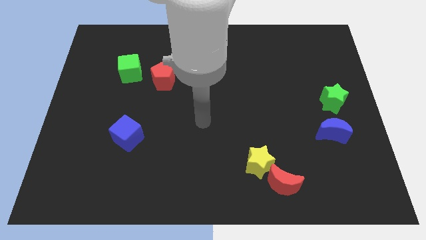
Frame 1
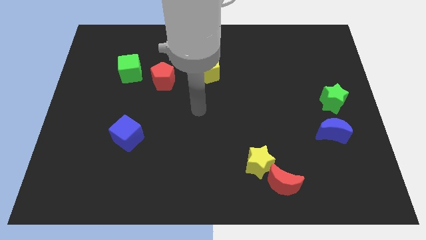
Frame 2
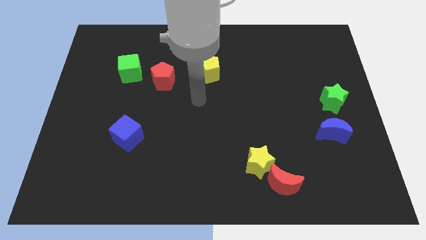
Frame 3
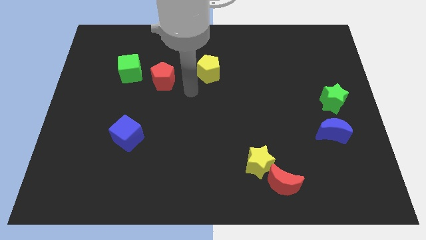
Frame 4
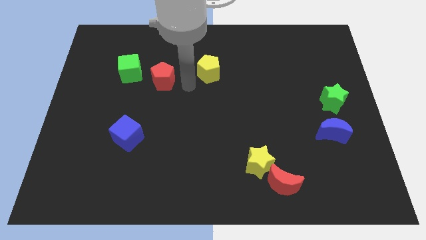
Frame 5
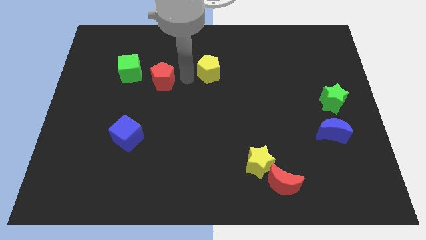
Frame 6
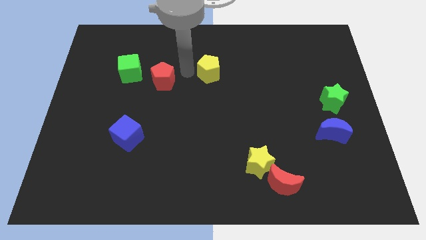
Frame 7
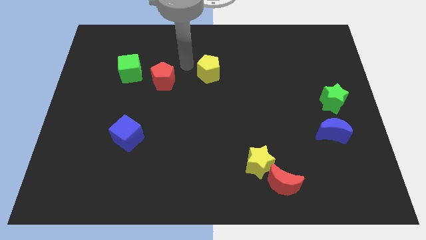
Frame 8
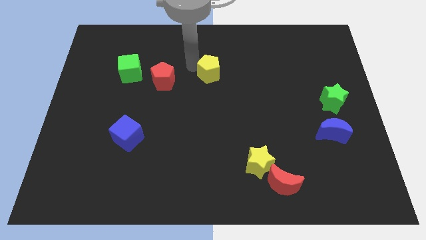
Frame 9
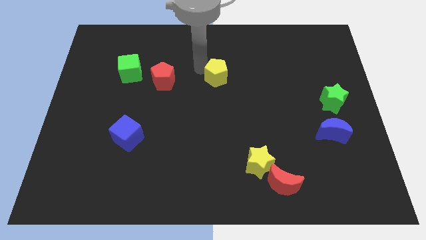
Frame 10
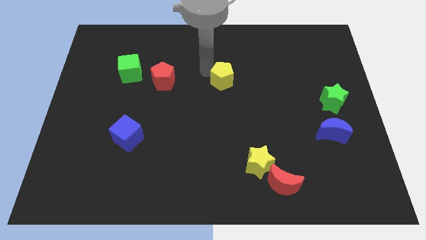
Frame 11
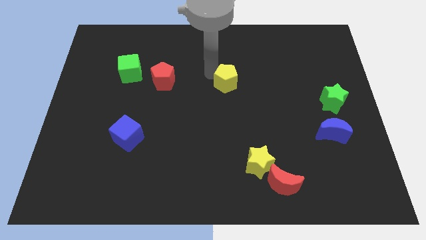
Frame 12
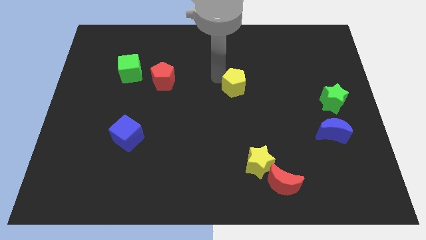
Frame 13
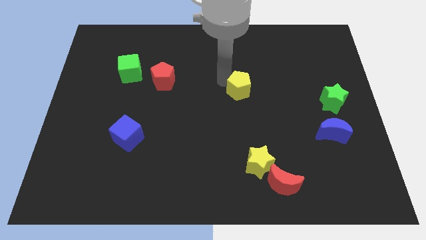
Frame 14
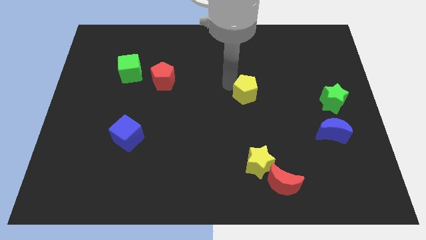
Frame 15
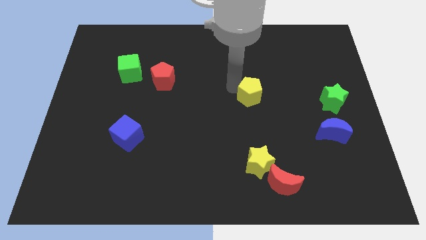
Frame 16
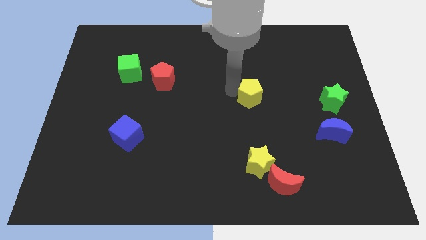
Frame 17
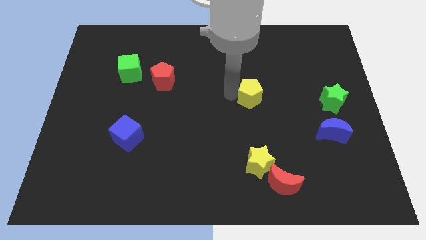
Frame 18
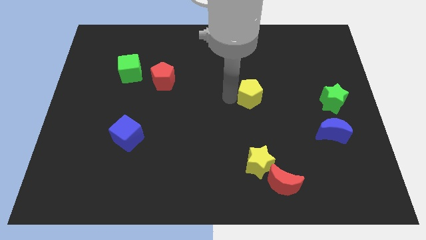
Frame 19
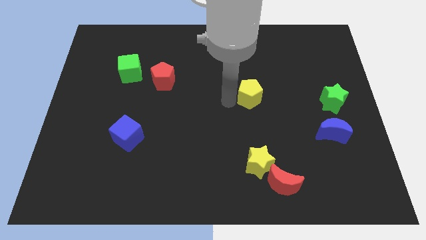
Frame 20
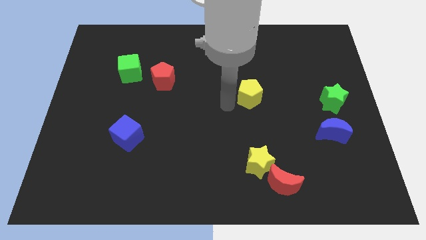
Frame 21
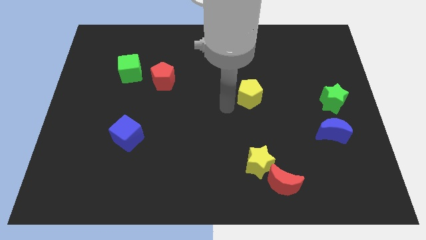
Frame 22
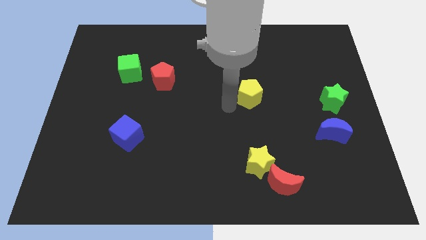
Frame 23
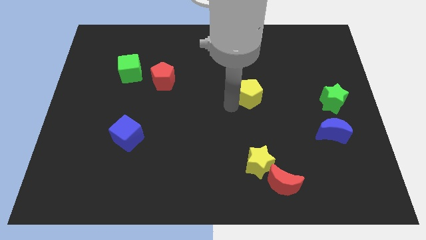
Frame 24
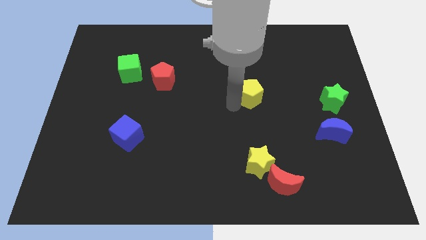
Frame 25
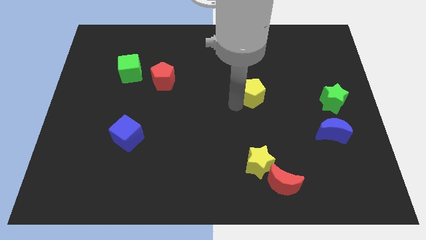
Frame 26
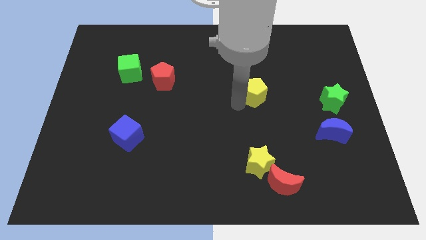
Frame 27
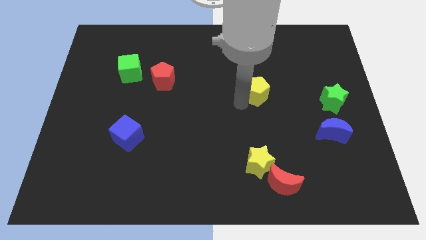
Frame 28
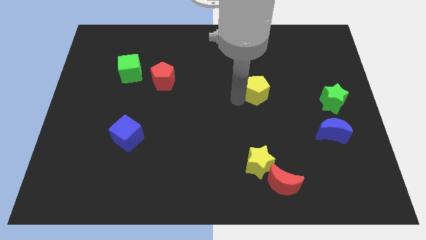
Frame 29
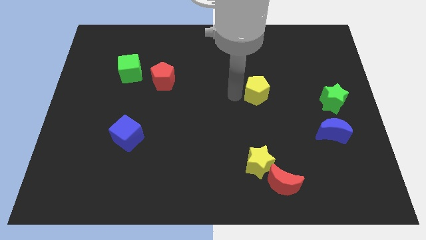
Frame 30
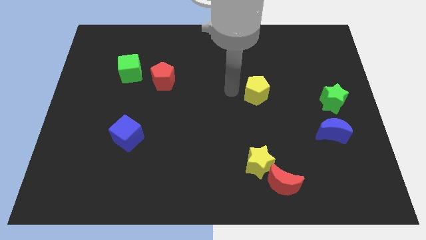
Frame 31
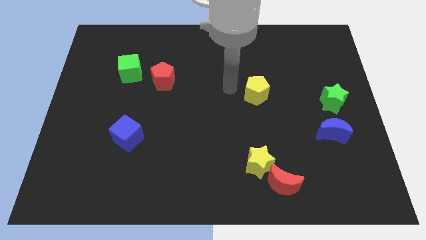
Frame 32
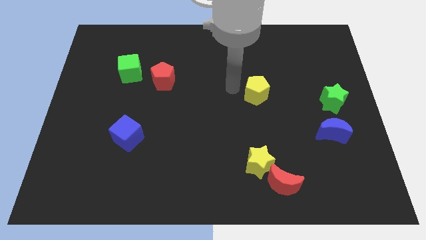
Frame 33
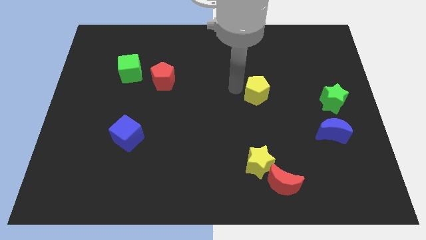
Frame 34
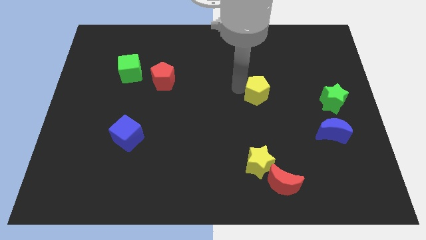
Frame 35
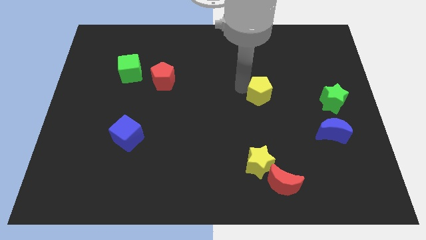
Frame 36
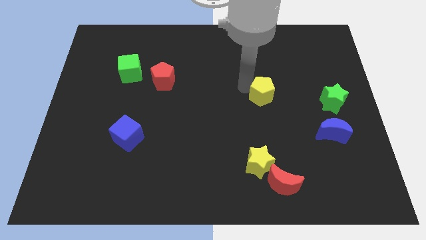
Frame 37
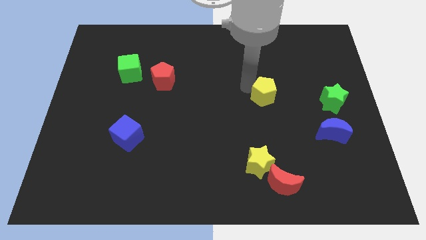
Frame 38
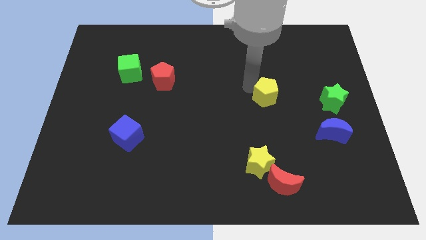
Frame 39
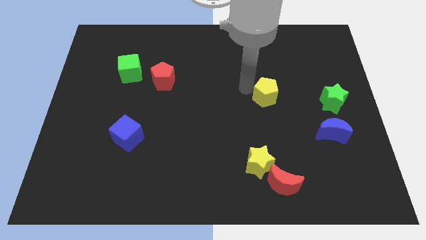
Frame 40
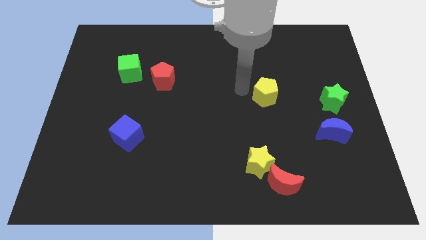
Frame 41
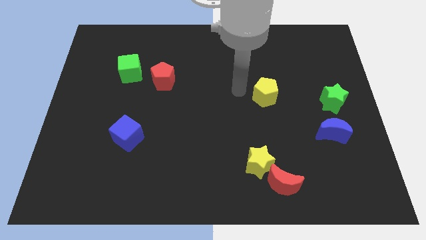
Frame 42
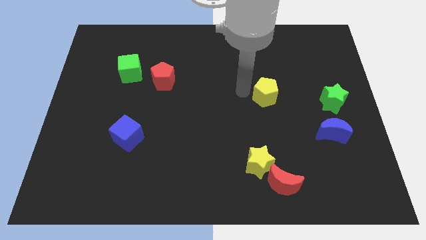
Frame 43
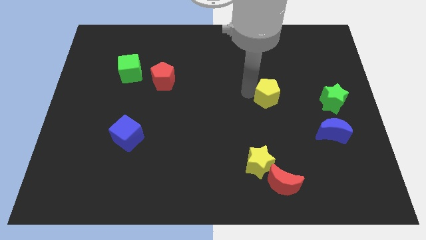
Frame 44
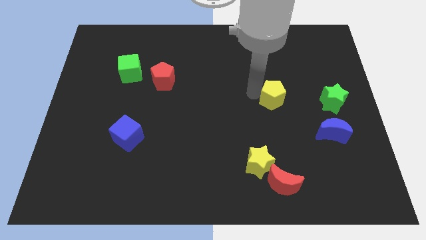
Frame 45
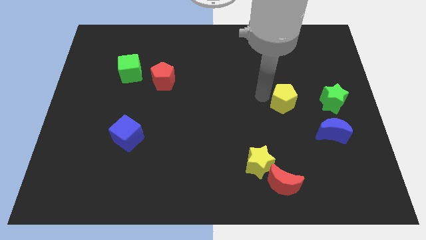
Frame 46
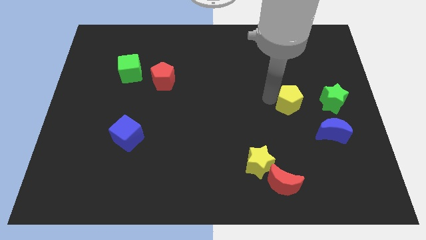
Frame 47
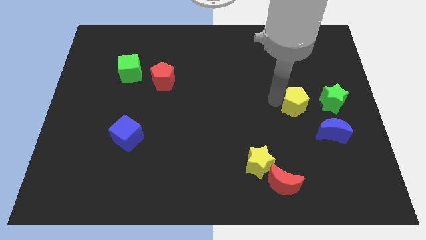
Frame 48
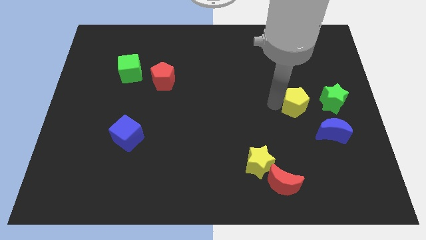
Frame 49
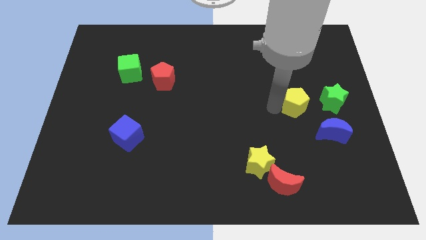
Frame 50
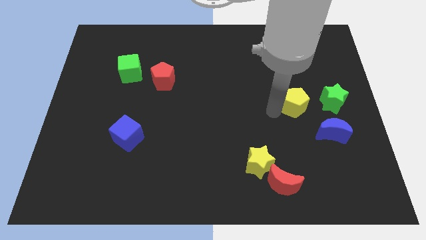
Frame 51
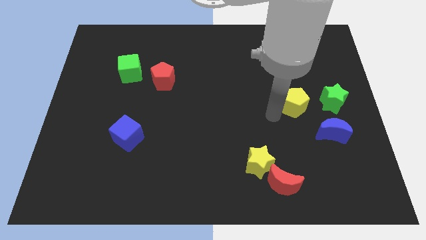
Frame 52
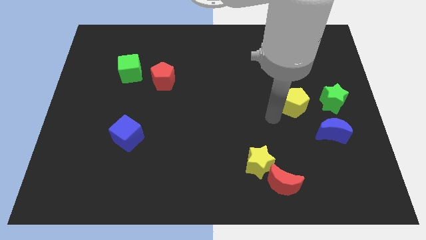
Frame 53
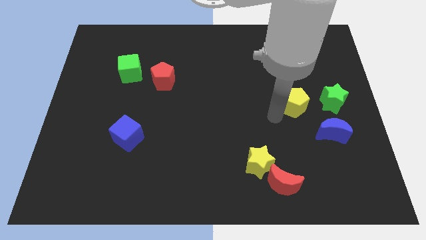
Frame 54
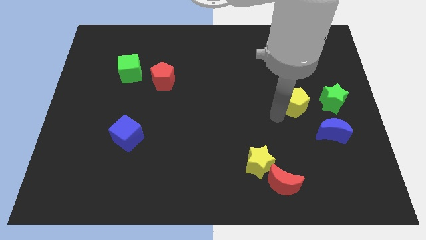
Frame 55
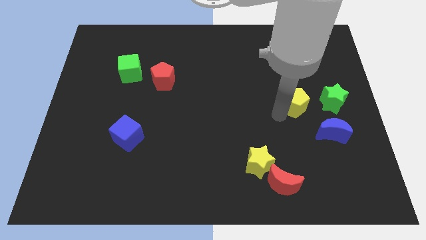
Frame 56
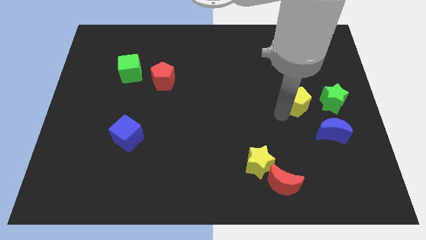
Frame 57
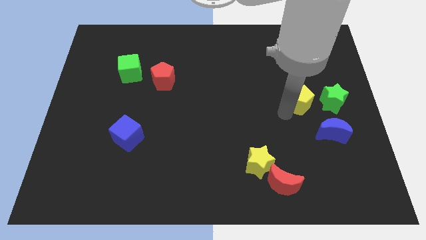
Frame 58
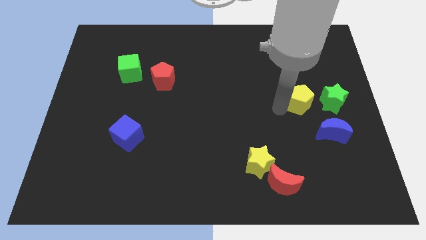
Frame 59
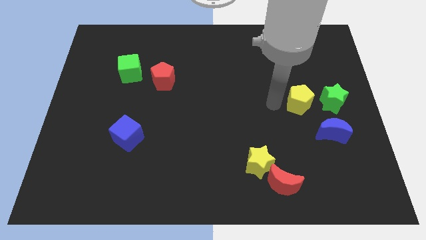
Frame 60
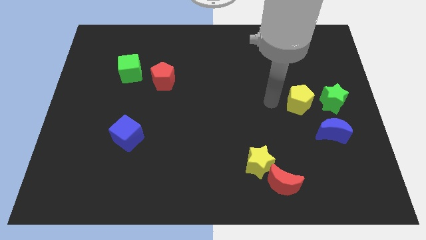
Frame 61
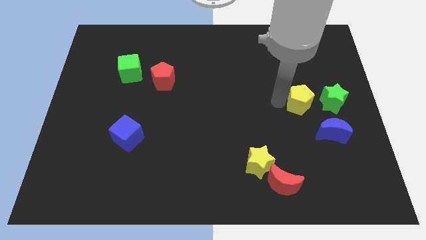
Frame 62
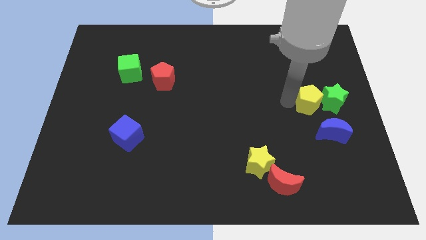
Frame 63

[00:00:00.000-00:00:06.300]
push the yellow pentagon towards the green star

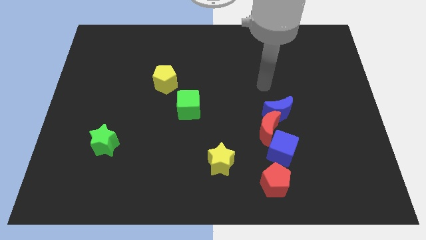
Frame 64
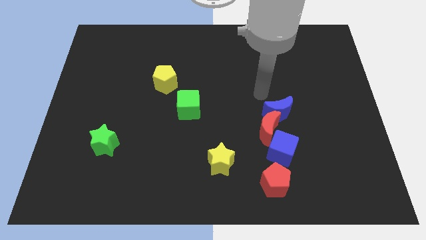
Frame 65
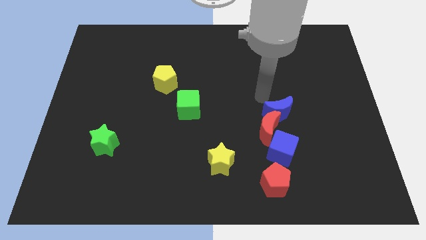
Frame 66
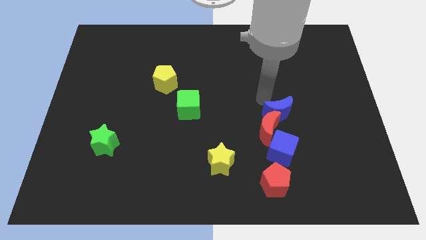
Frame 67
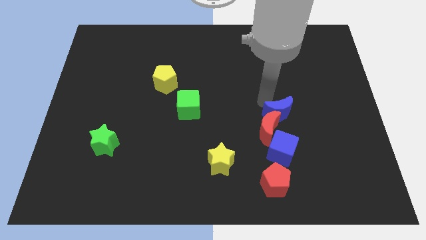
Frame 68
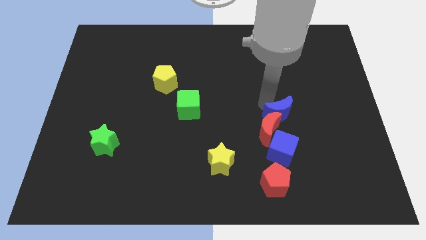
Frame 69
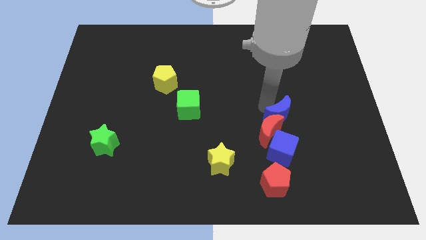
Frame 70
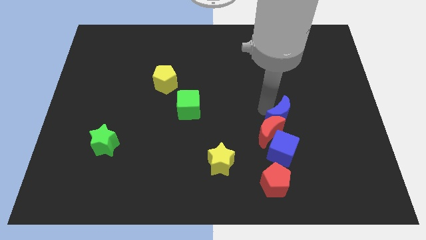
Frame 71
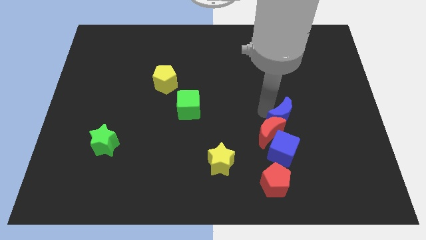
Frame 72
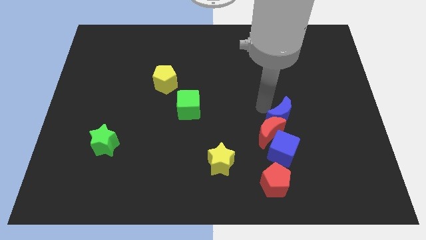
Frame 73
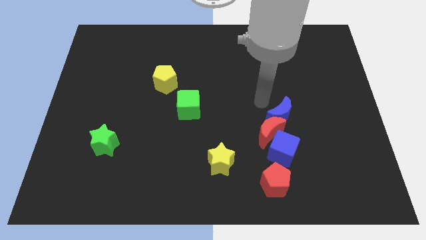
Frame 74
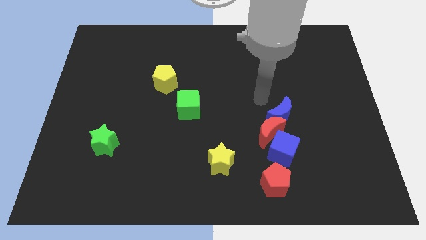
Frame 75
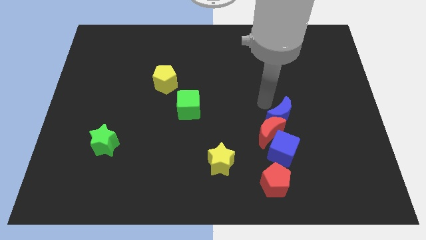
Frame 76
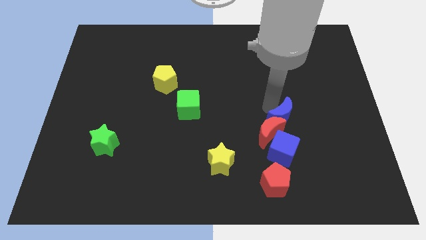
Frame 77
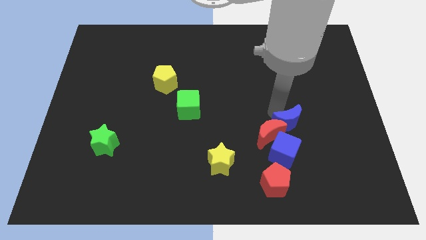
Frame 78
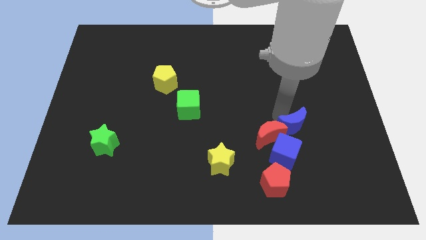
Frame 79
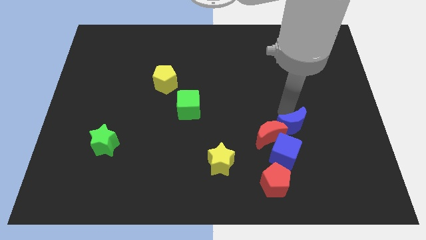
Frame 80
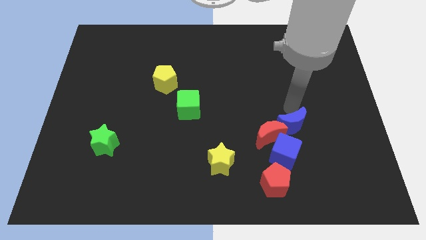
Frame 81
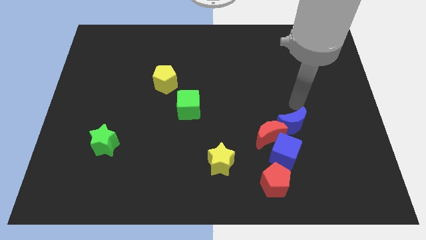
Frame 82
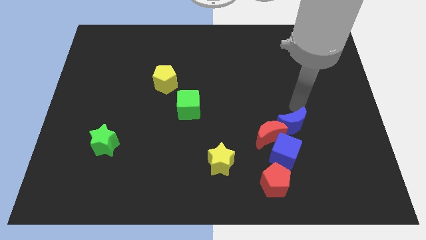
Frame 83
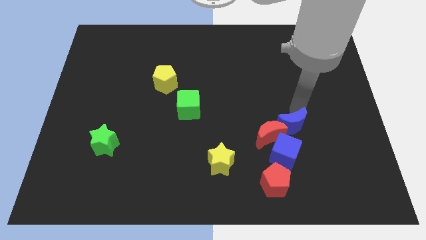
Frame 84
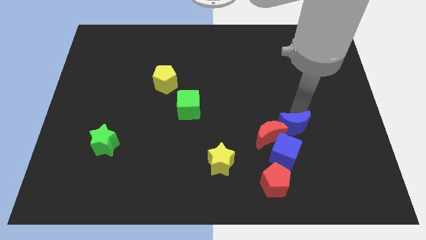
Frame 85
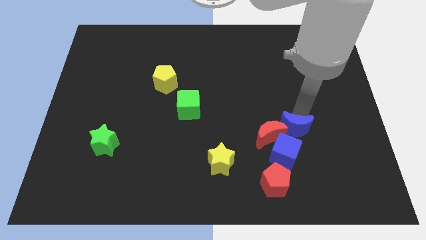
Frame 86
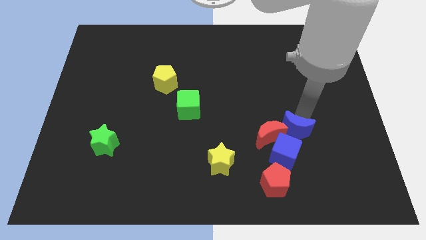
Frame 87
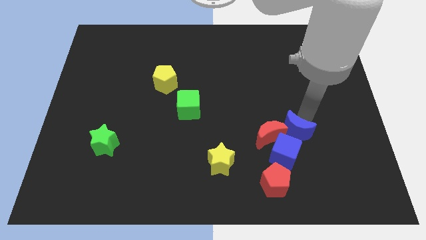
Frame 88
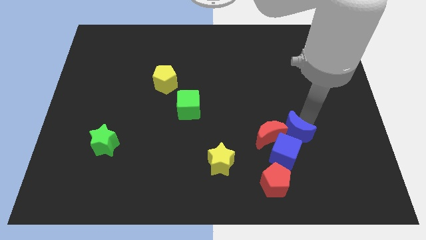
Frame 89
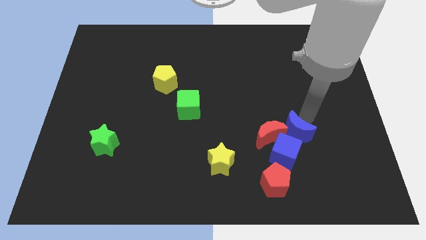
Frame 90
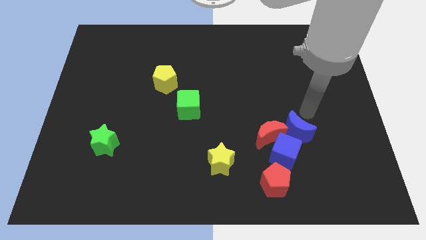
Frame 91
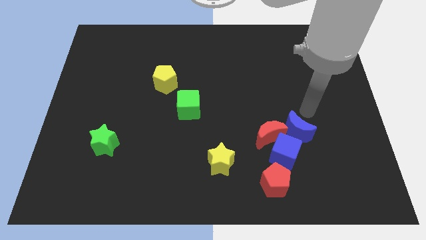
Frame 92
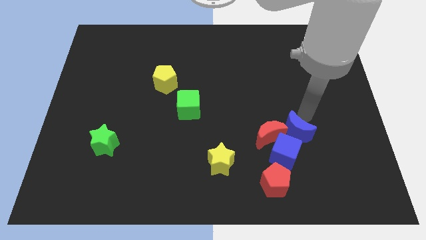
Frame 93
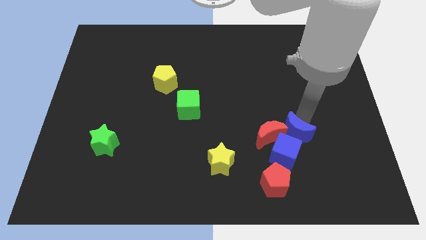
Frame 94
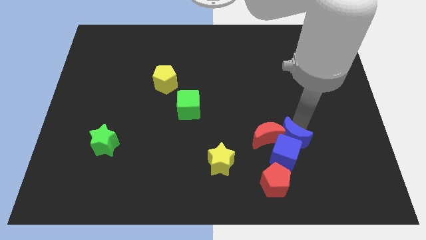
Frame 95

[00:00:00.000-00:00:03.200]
push the blue moon close to the blue cube
